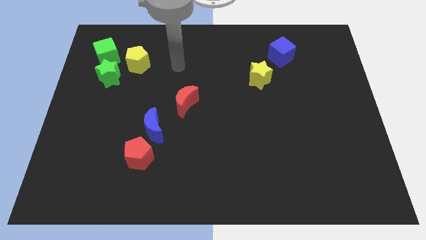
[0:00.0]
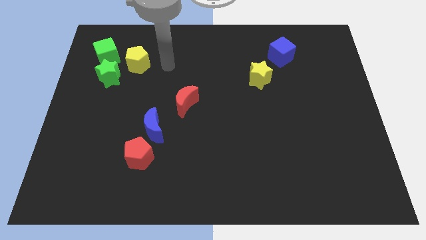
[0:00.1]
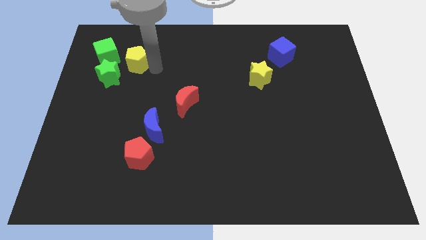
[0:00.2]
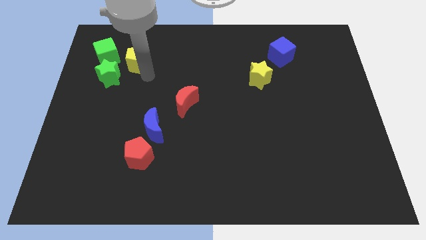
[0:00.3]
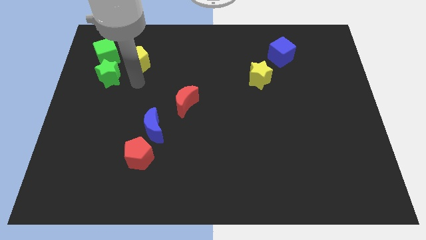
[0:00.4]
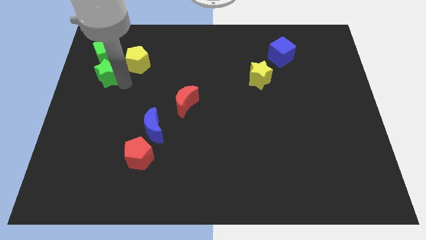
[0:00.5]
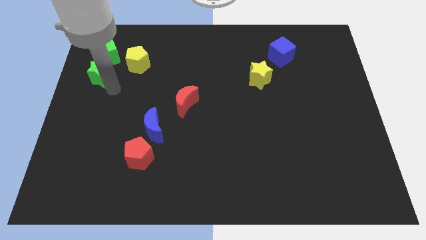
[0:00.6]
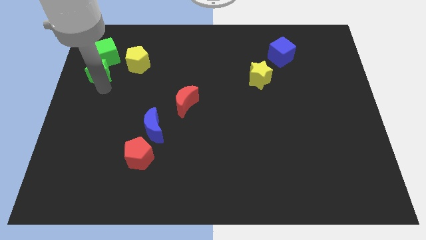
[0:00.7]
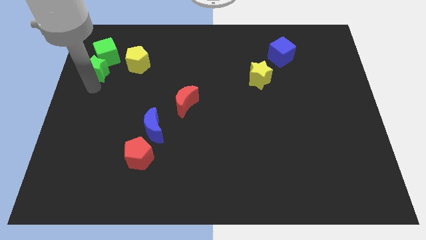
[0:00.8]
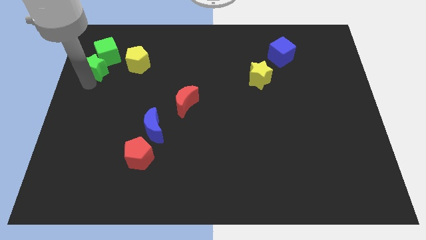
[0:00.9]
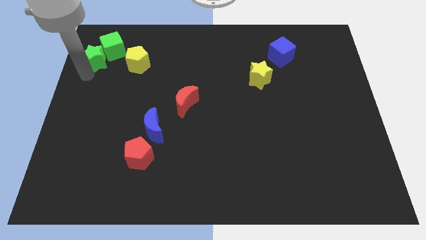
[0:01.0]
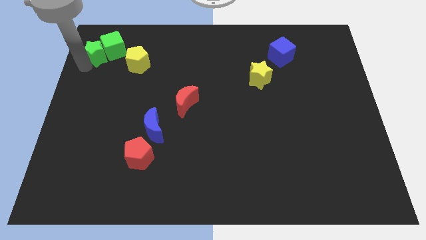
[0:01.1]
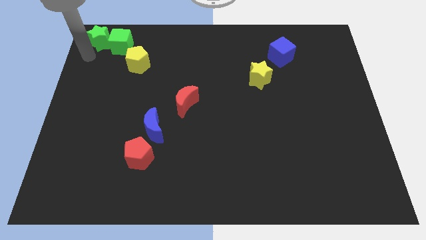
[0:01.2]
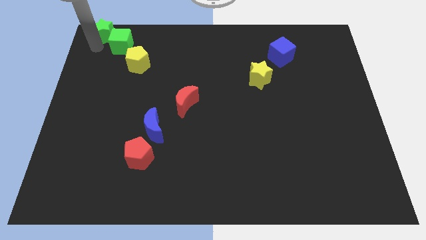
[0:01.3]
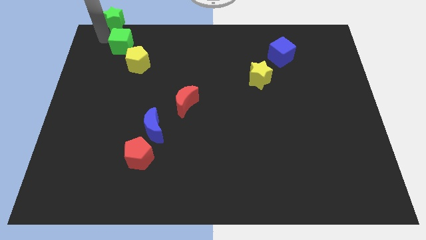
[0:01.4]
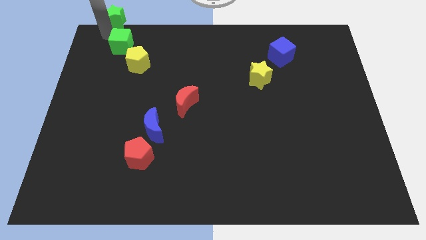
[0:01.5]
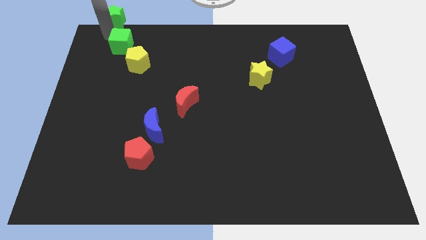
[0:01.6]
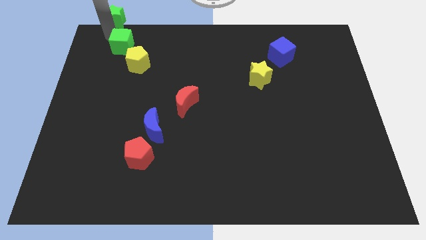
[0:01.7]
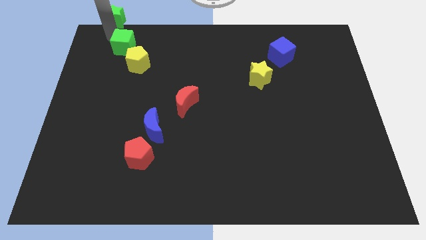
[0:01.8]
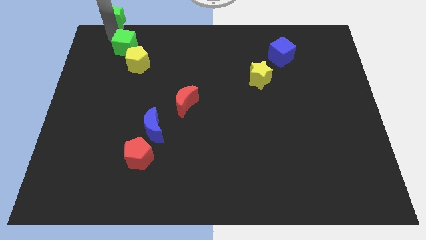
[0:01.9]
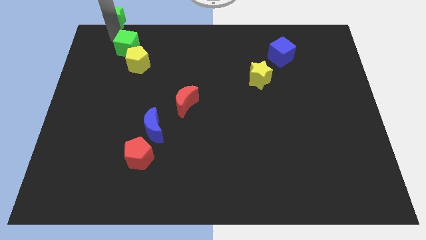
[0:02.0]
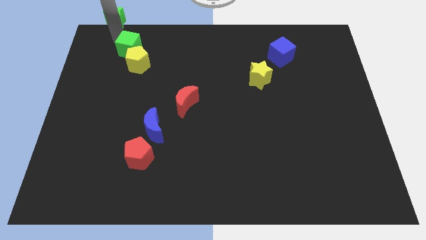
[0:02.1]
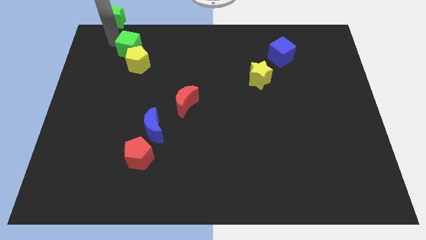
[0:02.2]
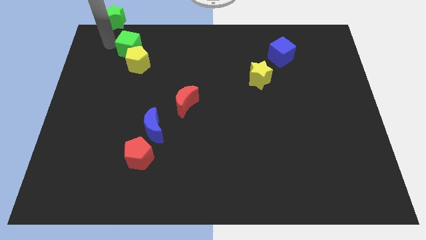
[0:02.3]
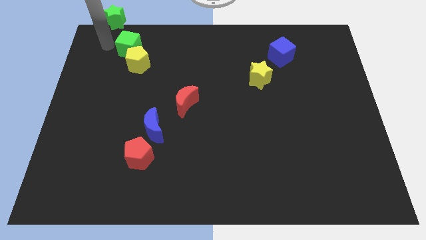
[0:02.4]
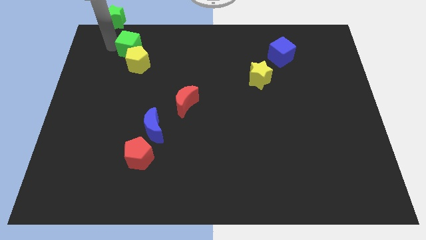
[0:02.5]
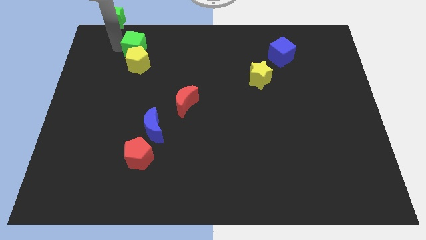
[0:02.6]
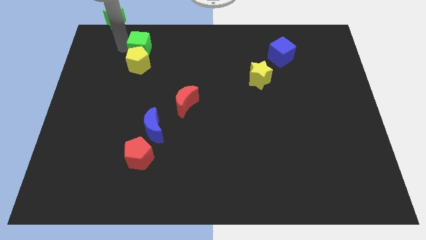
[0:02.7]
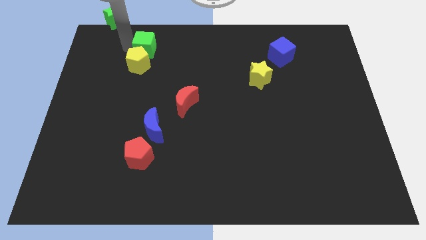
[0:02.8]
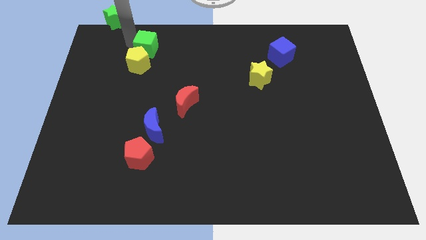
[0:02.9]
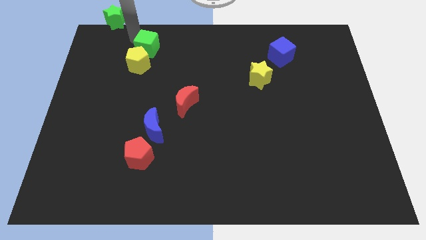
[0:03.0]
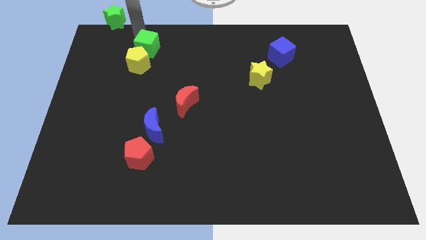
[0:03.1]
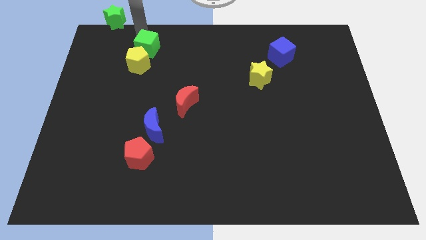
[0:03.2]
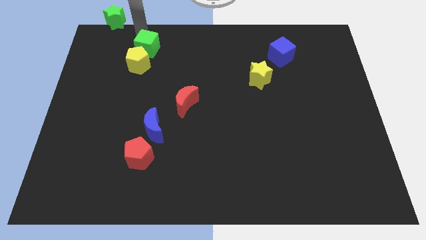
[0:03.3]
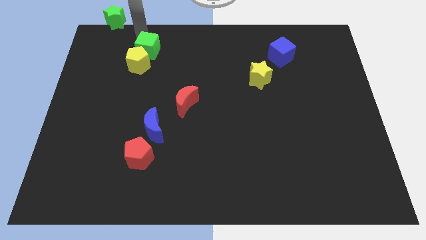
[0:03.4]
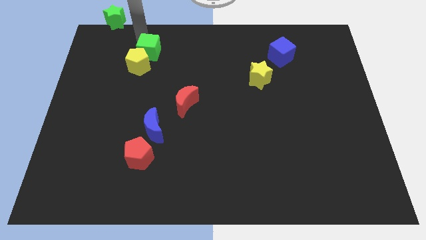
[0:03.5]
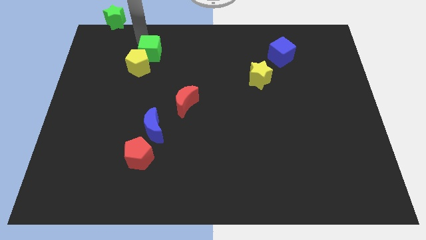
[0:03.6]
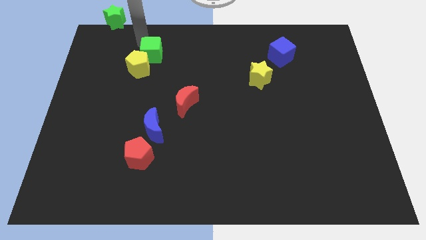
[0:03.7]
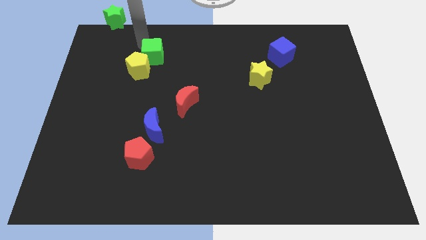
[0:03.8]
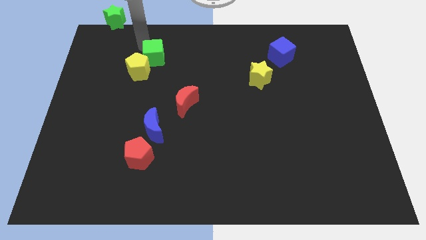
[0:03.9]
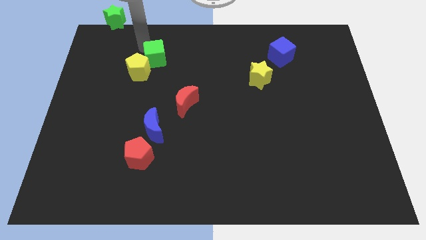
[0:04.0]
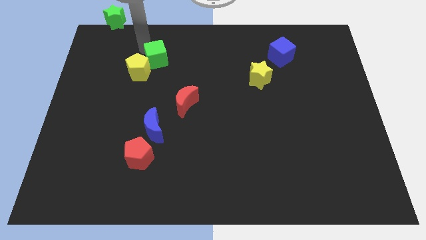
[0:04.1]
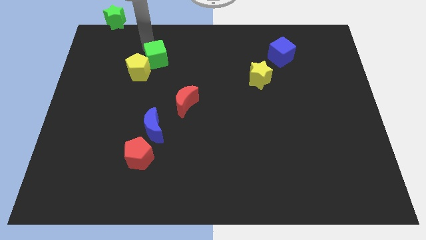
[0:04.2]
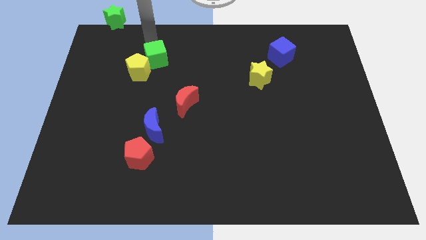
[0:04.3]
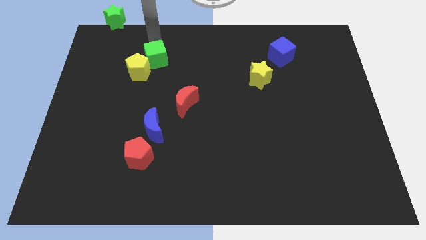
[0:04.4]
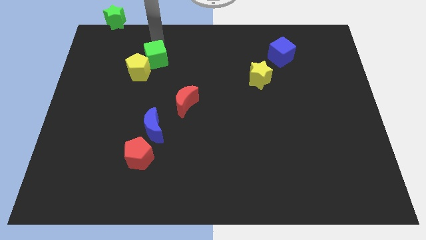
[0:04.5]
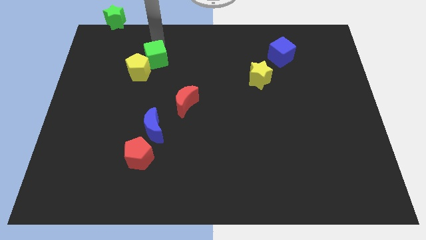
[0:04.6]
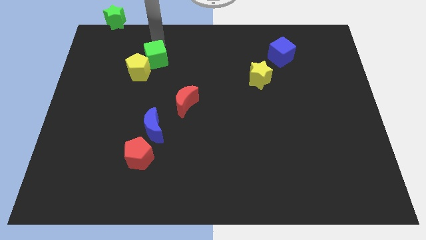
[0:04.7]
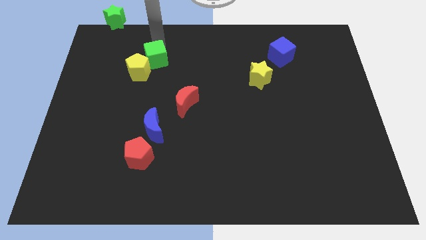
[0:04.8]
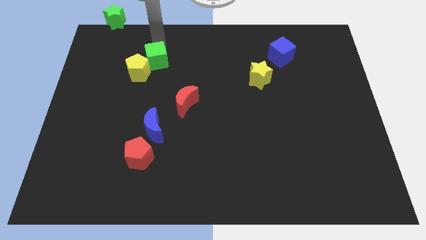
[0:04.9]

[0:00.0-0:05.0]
push the green cube down and then to the right slightly

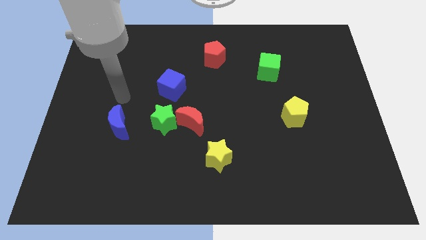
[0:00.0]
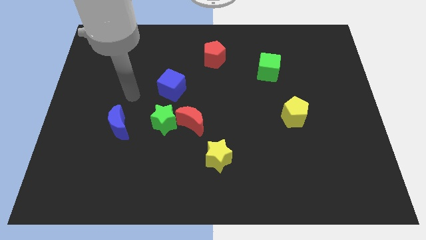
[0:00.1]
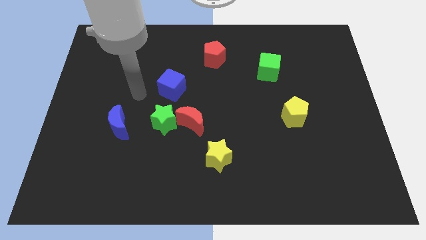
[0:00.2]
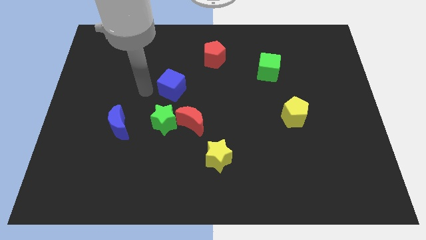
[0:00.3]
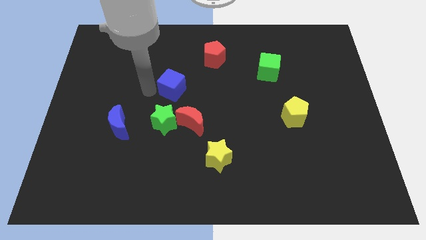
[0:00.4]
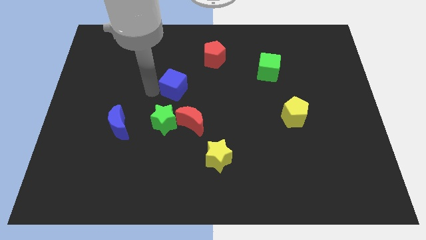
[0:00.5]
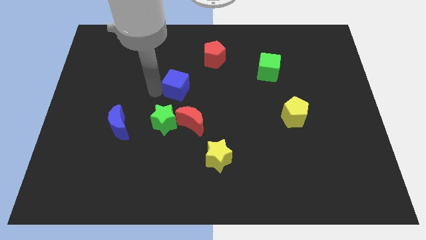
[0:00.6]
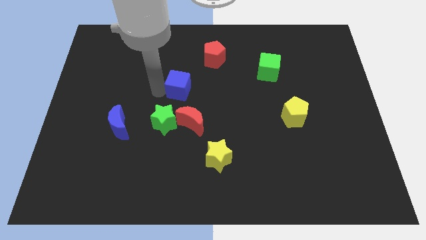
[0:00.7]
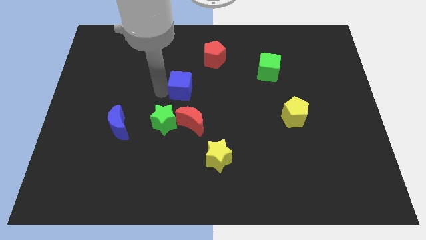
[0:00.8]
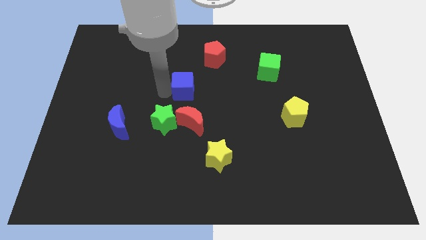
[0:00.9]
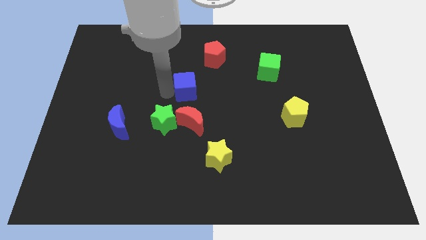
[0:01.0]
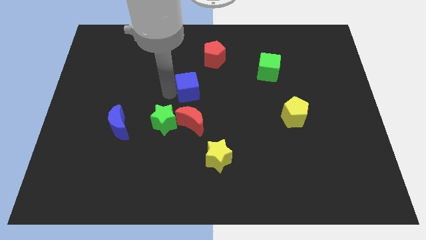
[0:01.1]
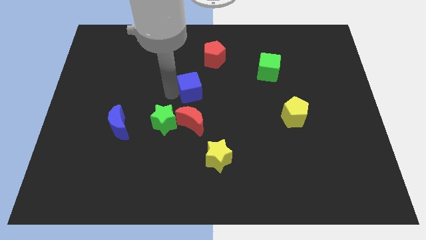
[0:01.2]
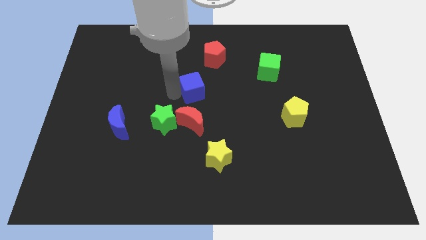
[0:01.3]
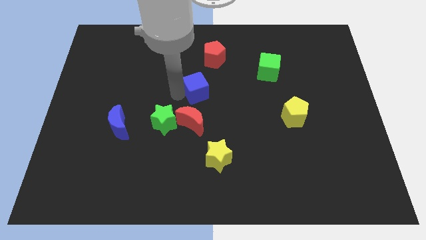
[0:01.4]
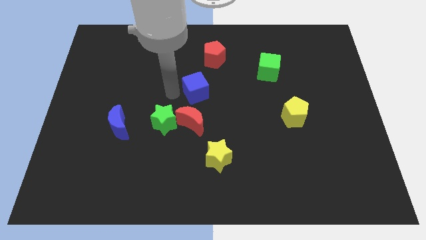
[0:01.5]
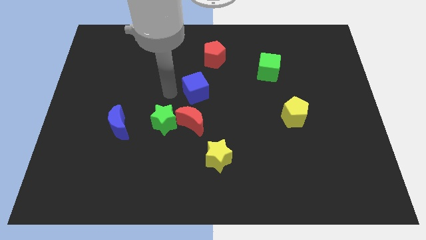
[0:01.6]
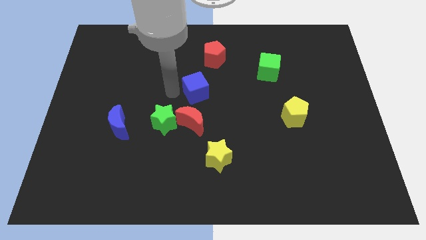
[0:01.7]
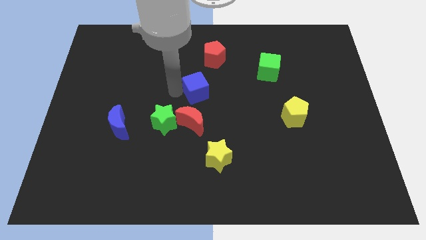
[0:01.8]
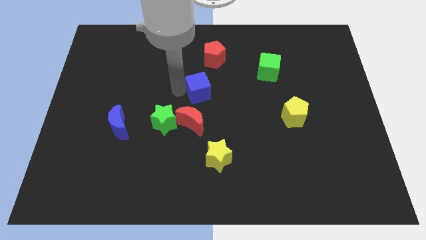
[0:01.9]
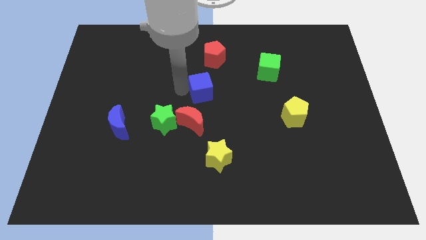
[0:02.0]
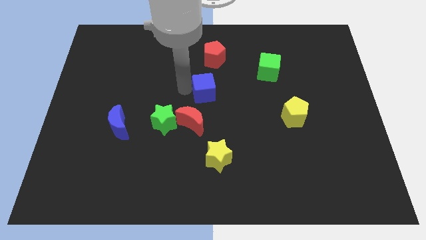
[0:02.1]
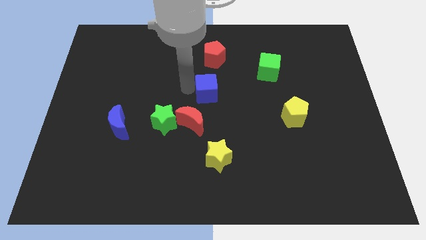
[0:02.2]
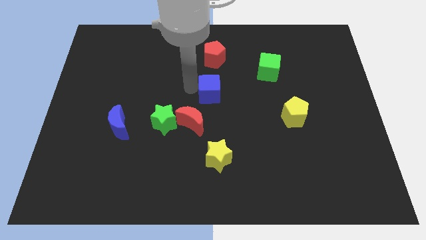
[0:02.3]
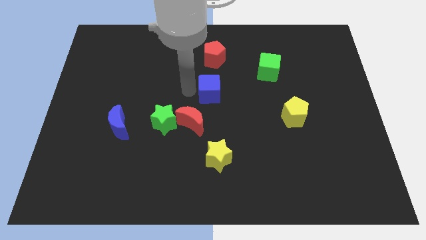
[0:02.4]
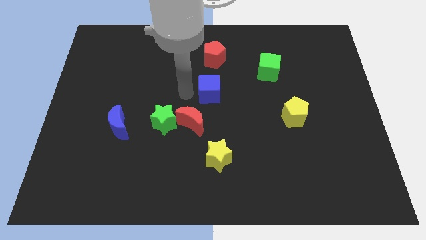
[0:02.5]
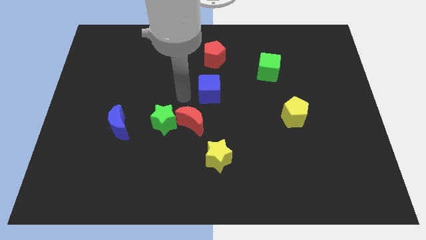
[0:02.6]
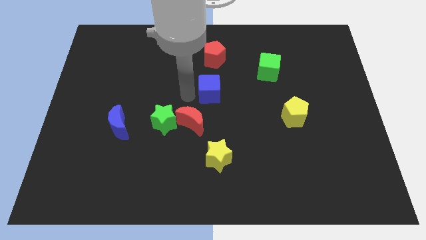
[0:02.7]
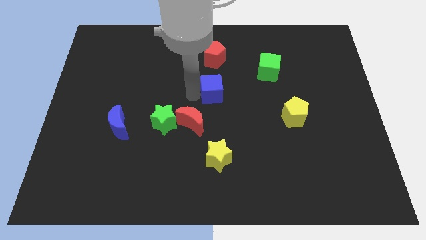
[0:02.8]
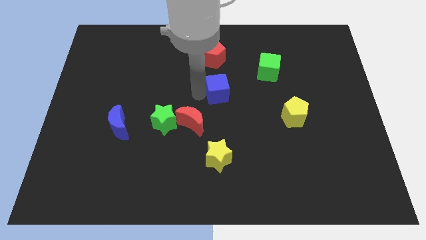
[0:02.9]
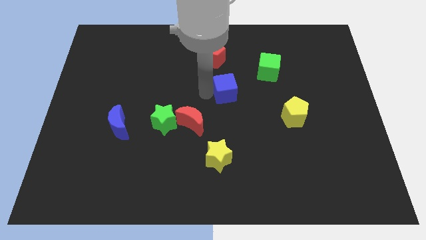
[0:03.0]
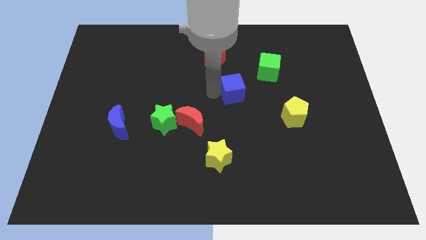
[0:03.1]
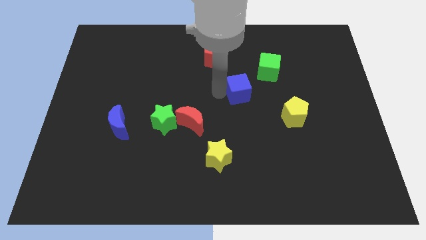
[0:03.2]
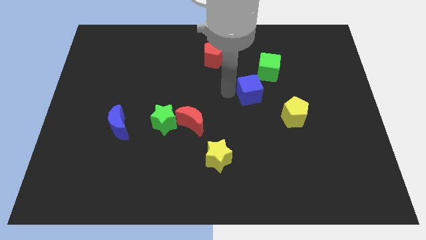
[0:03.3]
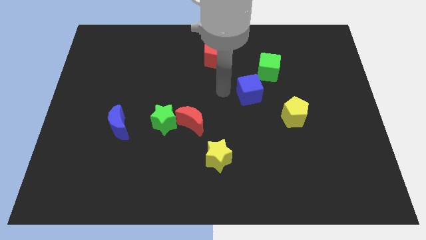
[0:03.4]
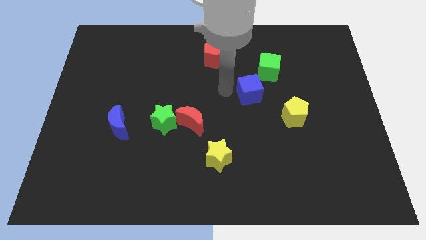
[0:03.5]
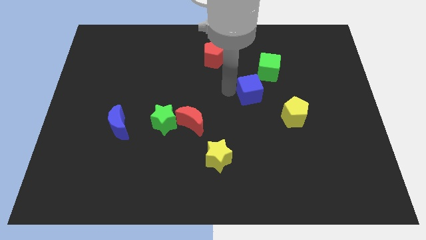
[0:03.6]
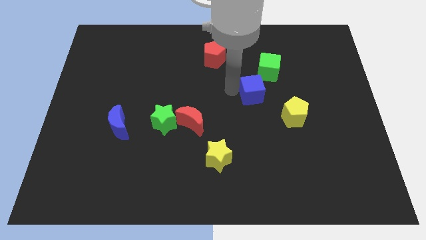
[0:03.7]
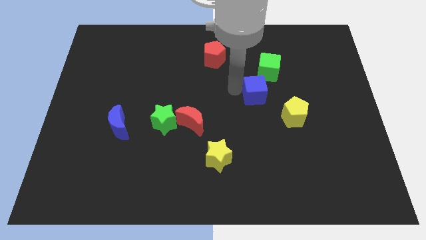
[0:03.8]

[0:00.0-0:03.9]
move the blue cube to the right
